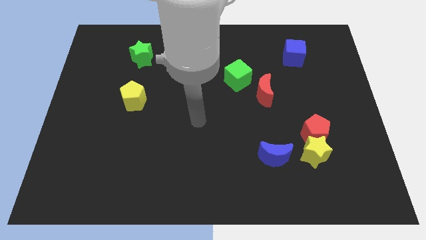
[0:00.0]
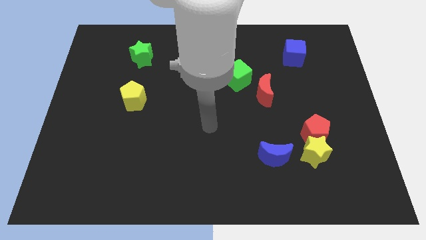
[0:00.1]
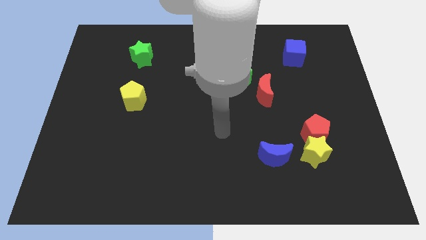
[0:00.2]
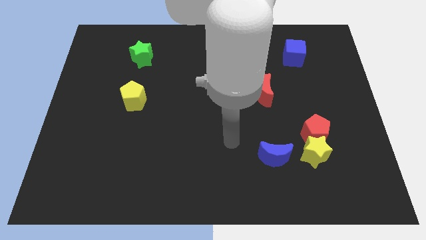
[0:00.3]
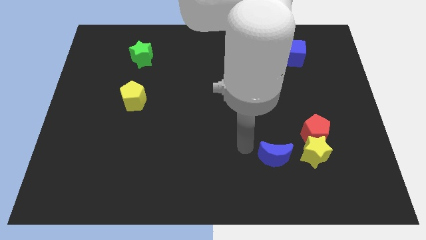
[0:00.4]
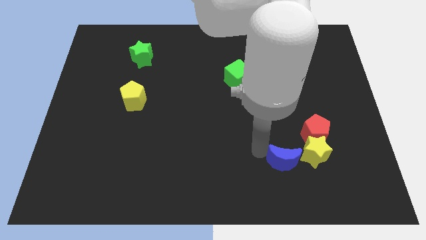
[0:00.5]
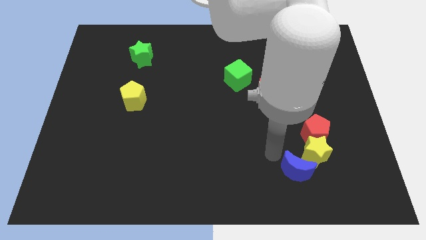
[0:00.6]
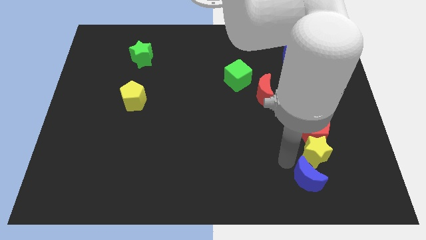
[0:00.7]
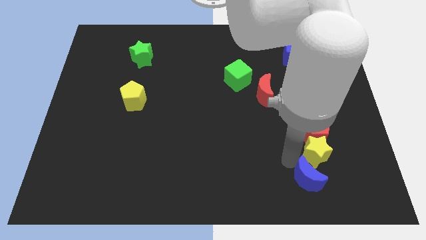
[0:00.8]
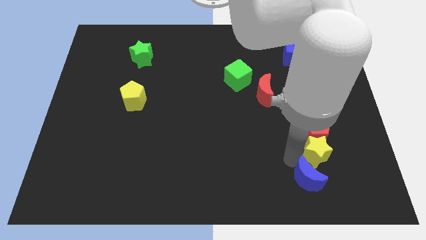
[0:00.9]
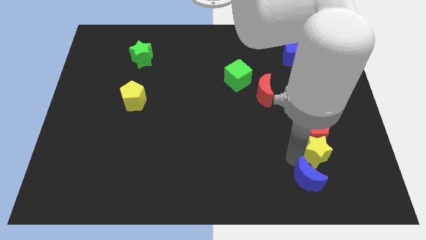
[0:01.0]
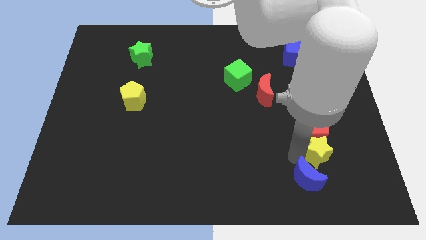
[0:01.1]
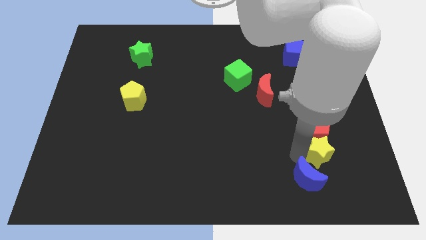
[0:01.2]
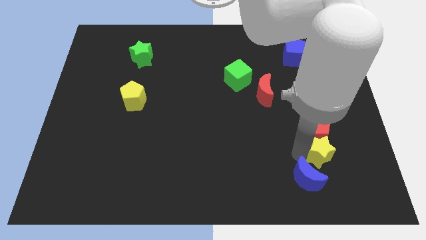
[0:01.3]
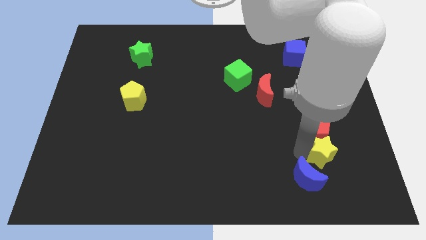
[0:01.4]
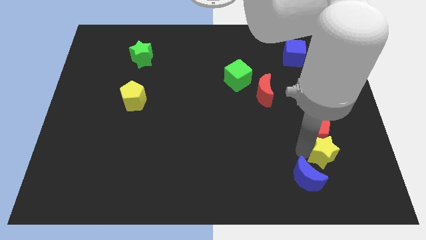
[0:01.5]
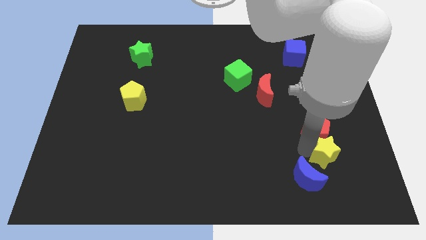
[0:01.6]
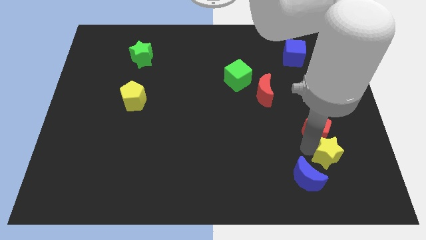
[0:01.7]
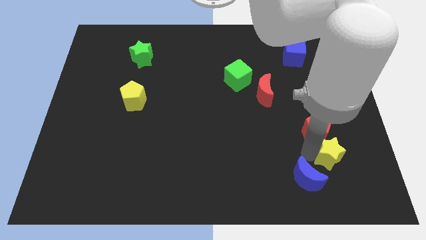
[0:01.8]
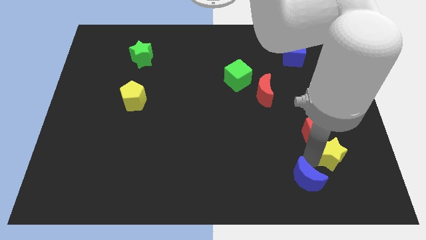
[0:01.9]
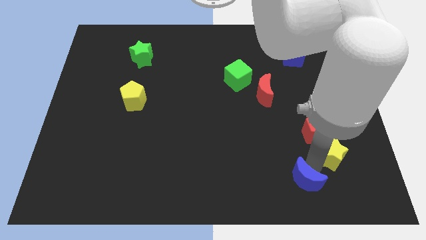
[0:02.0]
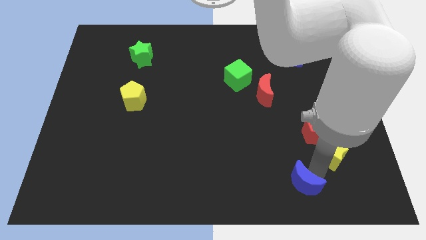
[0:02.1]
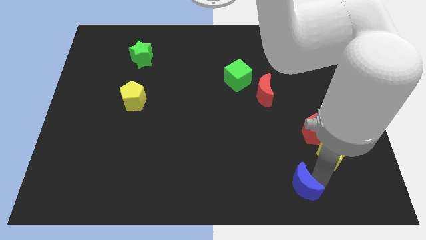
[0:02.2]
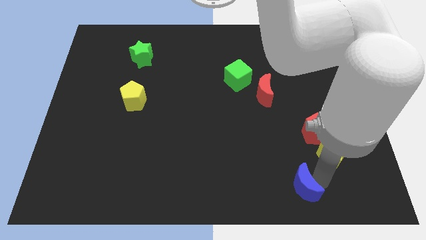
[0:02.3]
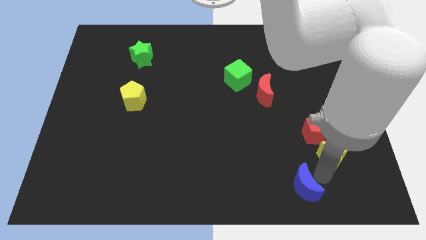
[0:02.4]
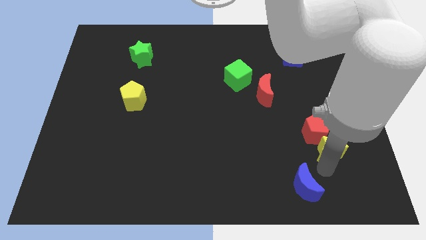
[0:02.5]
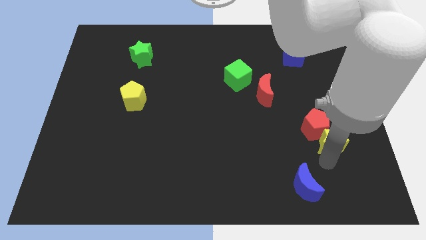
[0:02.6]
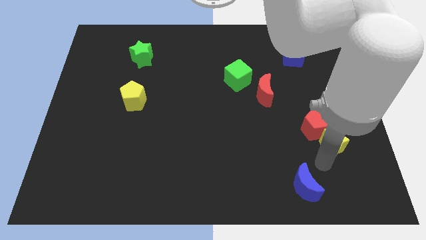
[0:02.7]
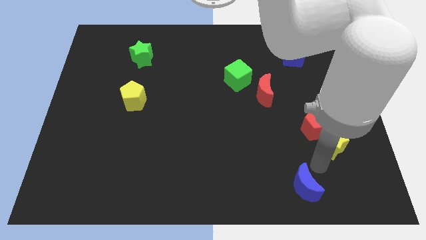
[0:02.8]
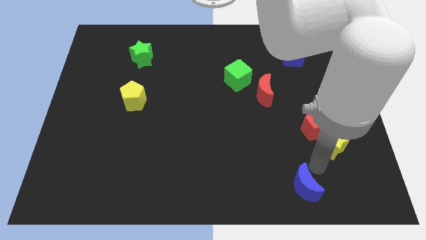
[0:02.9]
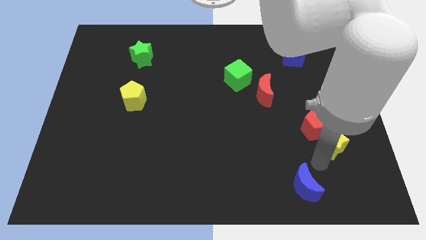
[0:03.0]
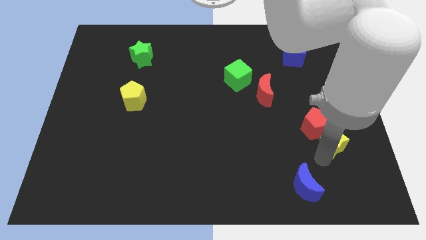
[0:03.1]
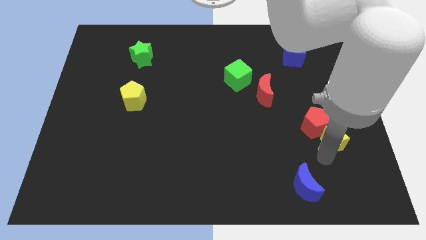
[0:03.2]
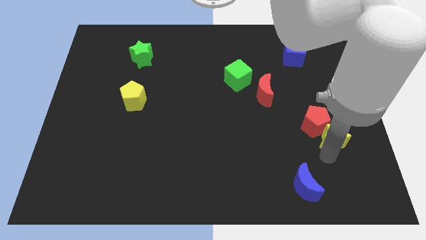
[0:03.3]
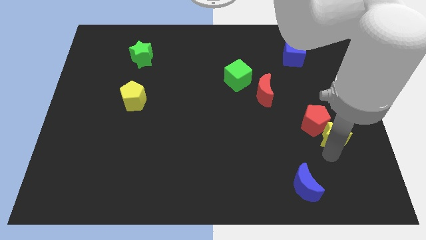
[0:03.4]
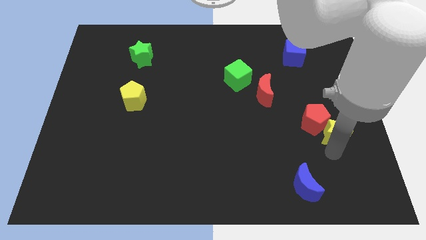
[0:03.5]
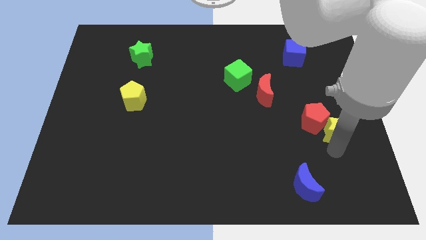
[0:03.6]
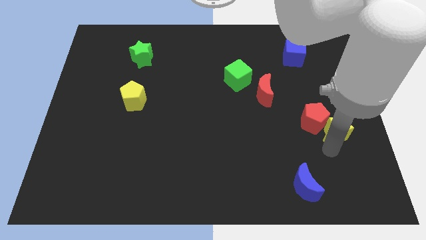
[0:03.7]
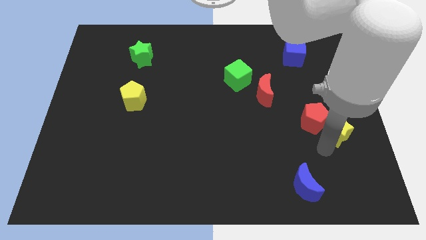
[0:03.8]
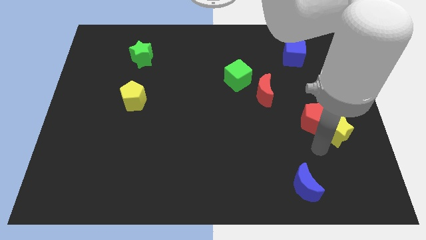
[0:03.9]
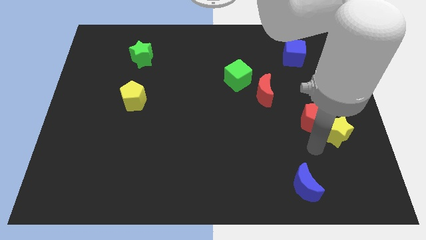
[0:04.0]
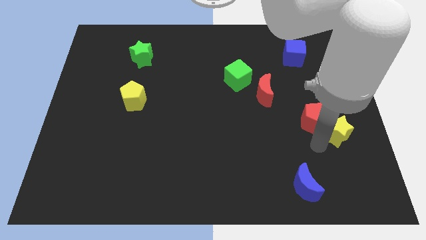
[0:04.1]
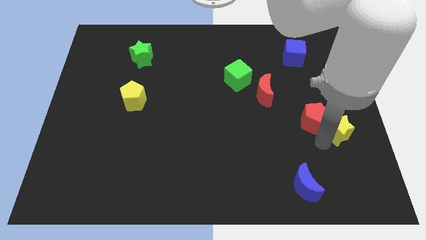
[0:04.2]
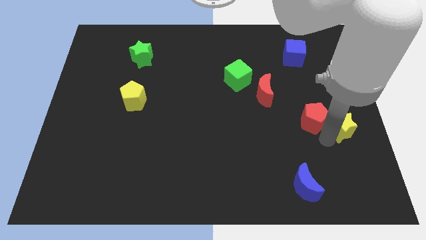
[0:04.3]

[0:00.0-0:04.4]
move the yellow star to the right side

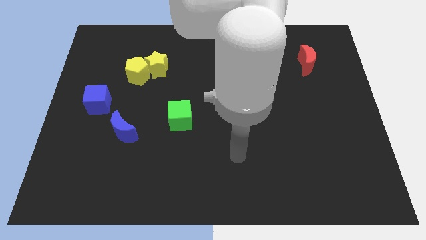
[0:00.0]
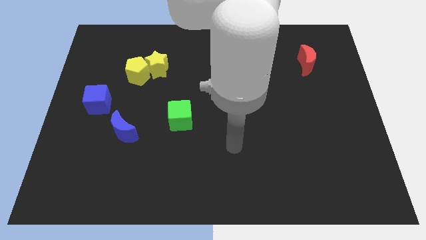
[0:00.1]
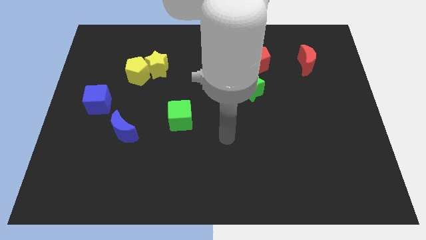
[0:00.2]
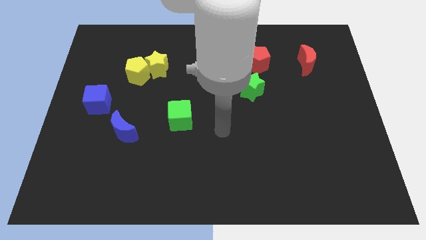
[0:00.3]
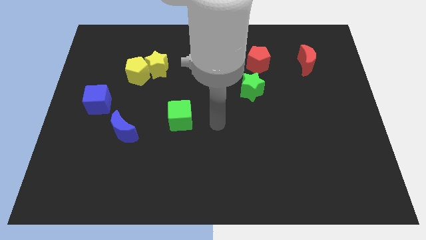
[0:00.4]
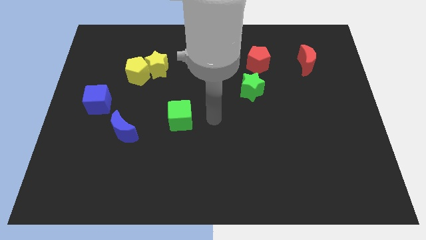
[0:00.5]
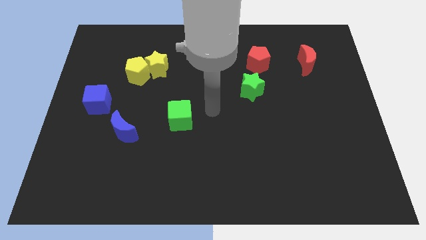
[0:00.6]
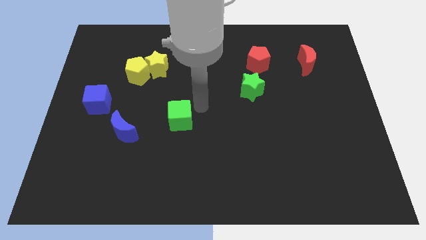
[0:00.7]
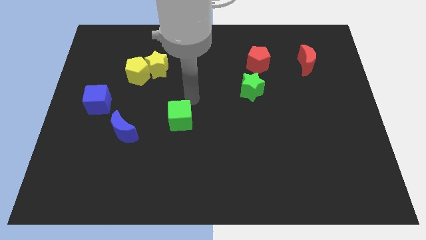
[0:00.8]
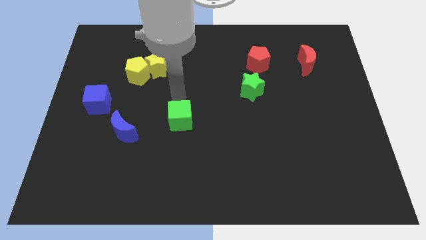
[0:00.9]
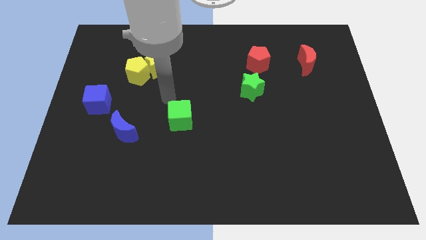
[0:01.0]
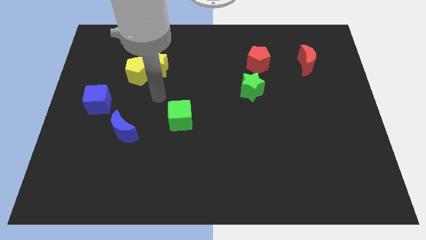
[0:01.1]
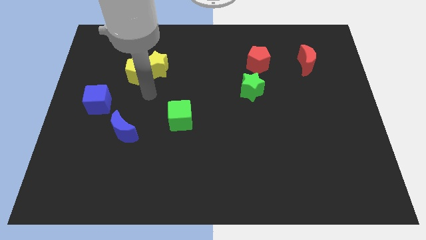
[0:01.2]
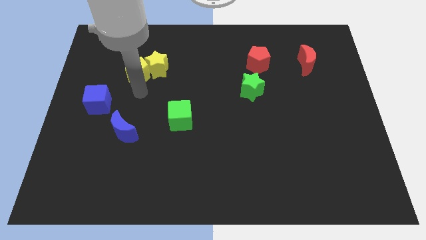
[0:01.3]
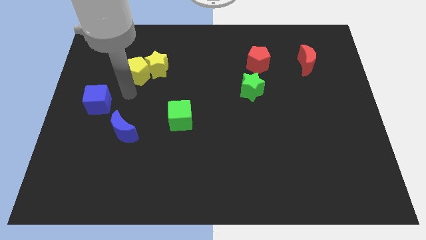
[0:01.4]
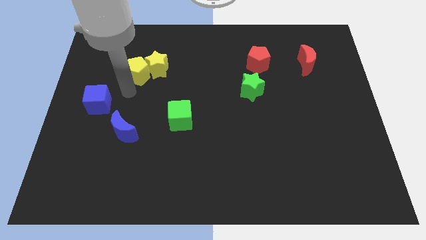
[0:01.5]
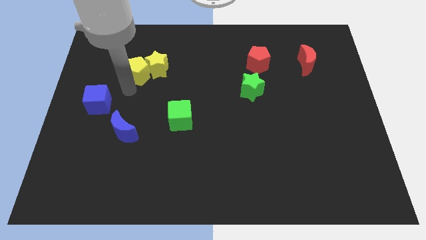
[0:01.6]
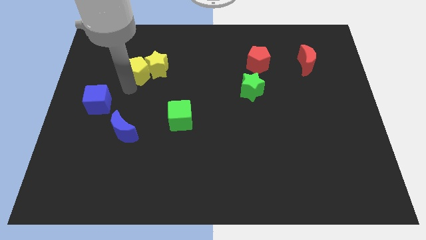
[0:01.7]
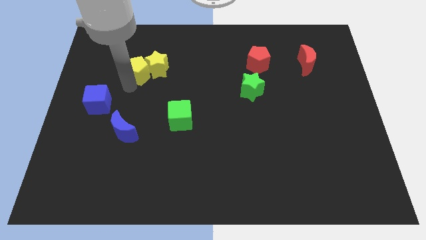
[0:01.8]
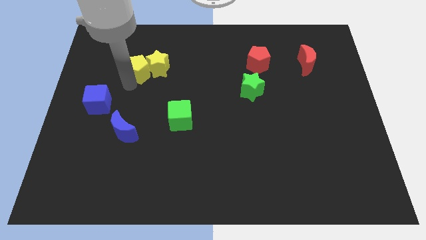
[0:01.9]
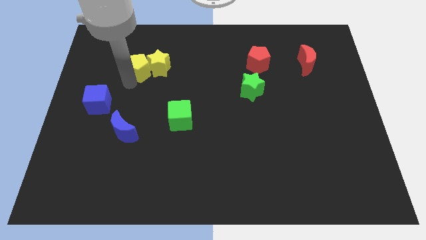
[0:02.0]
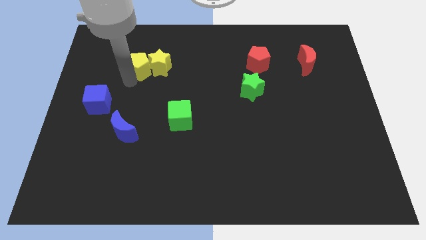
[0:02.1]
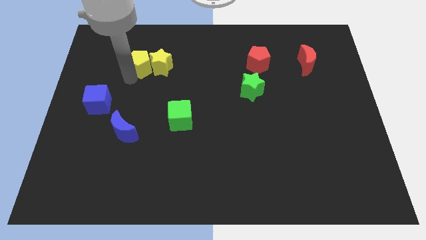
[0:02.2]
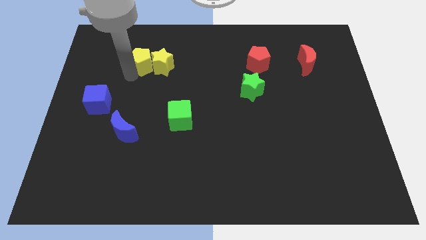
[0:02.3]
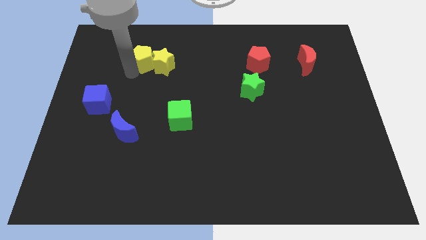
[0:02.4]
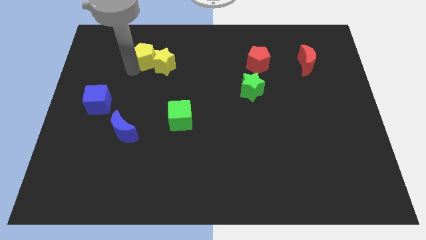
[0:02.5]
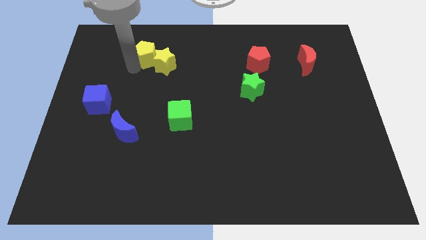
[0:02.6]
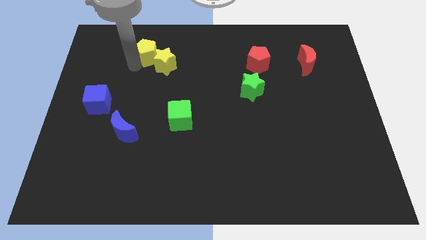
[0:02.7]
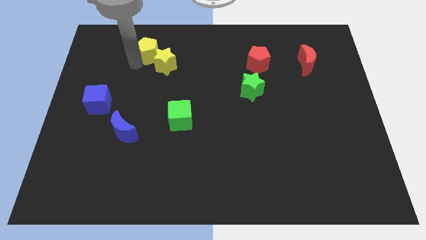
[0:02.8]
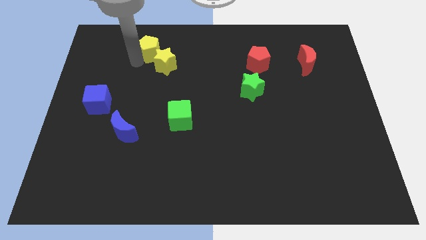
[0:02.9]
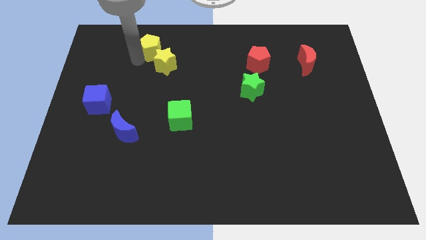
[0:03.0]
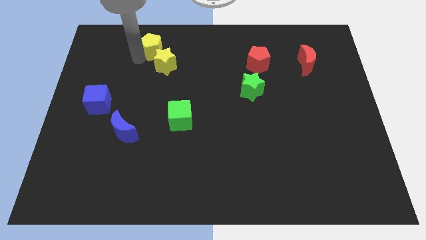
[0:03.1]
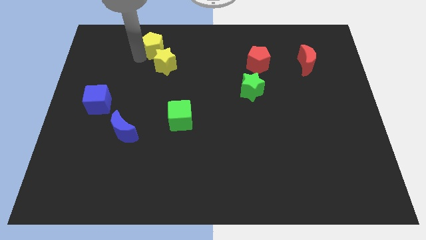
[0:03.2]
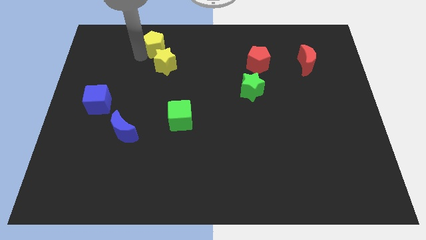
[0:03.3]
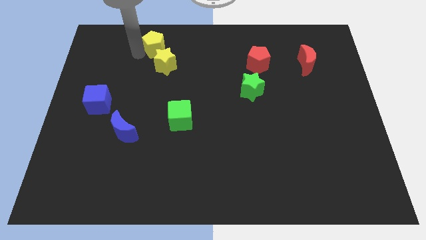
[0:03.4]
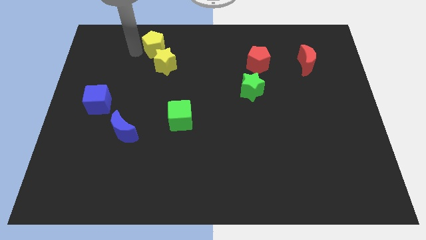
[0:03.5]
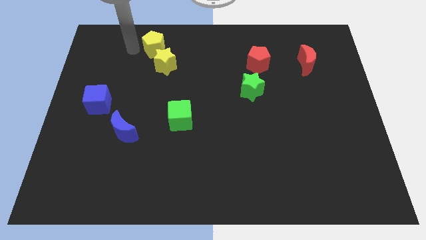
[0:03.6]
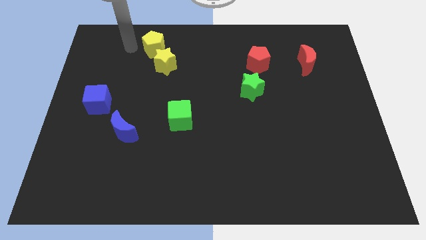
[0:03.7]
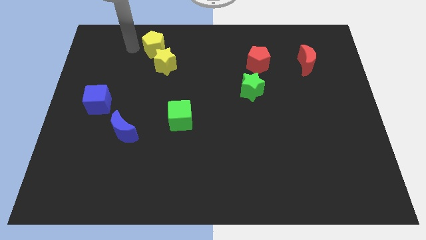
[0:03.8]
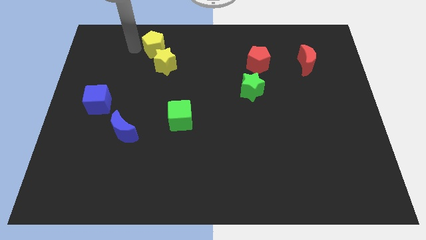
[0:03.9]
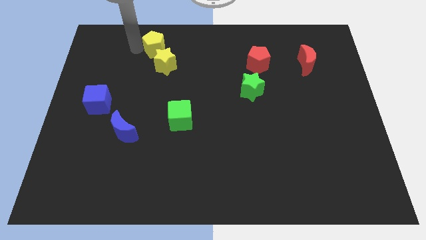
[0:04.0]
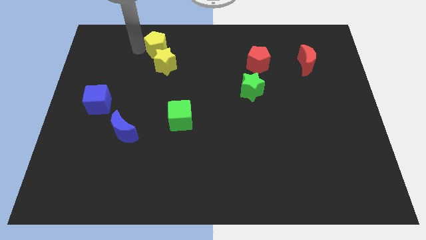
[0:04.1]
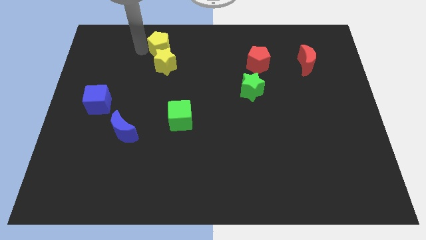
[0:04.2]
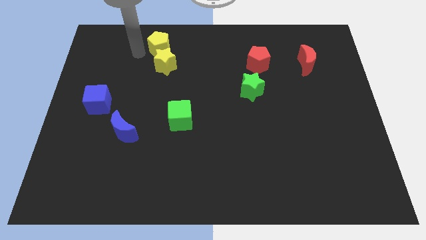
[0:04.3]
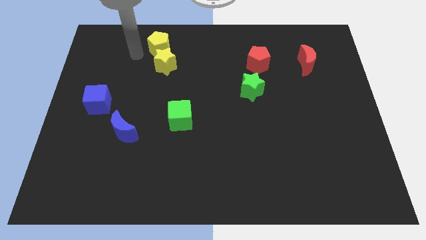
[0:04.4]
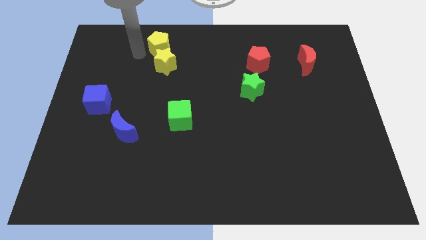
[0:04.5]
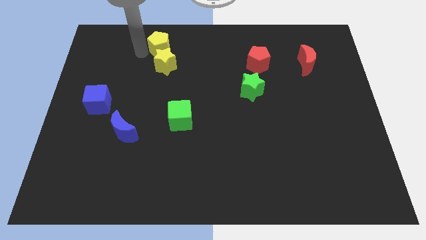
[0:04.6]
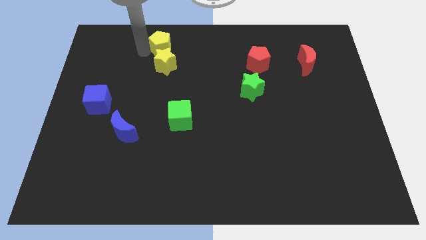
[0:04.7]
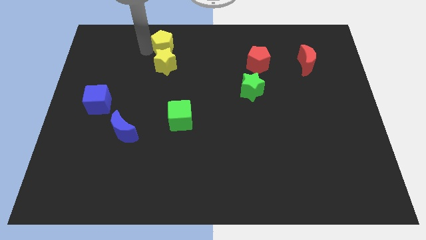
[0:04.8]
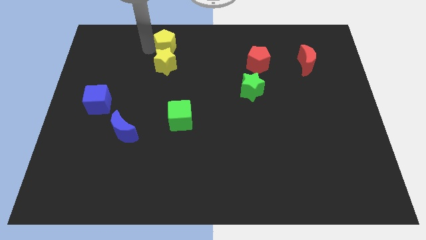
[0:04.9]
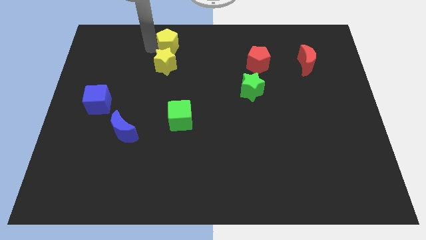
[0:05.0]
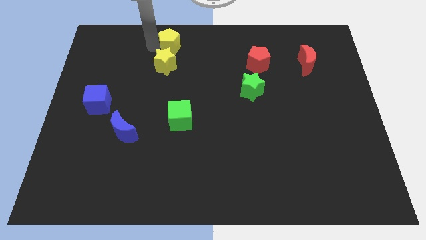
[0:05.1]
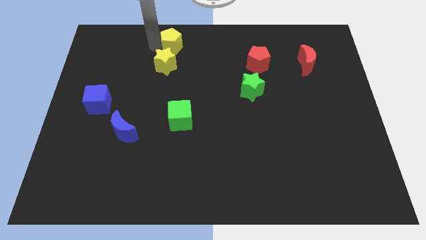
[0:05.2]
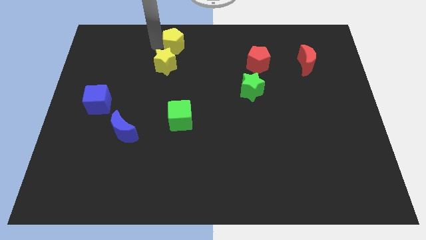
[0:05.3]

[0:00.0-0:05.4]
move the yellow pentagon to the top side
